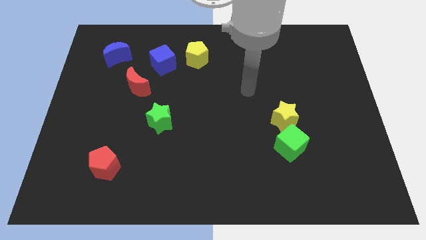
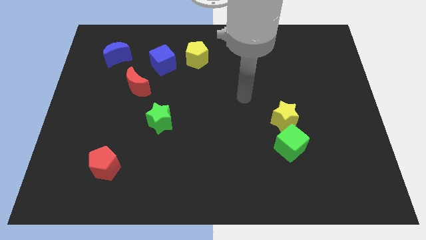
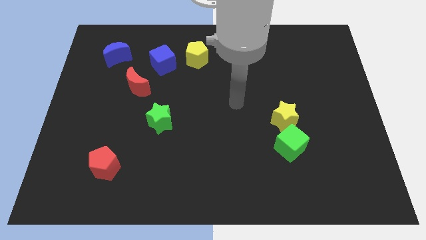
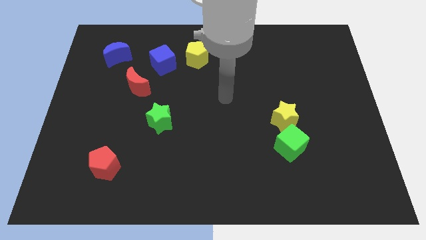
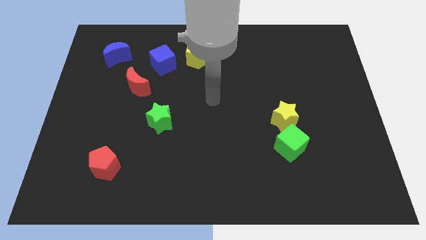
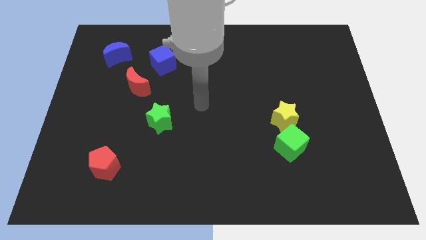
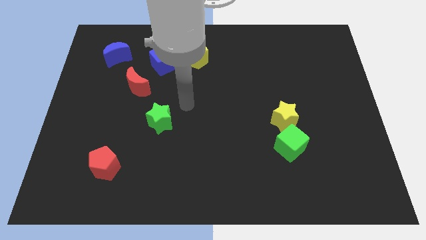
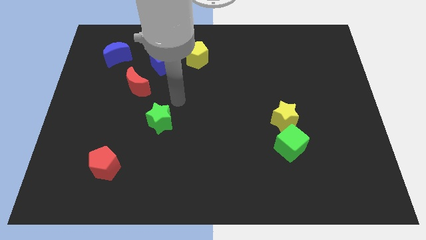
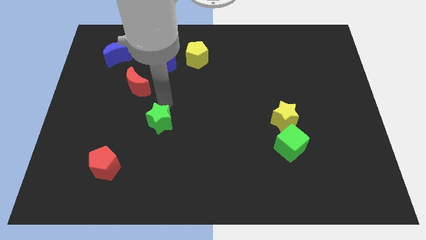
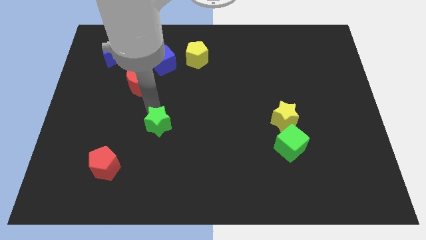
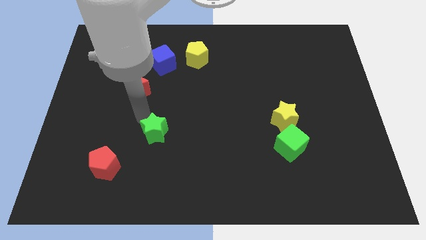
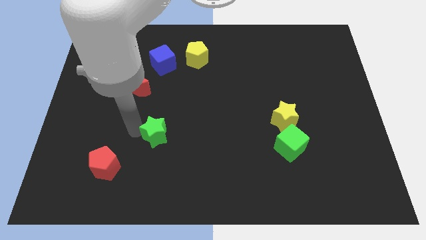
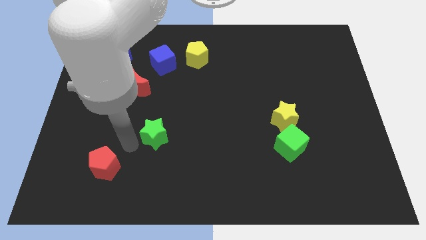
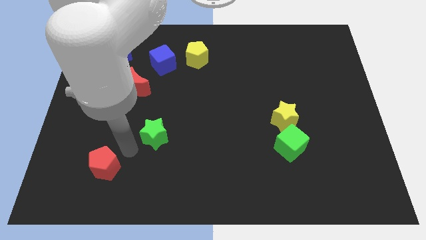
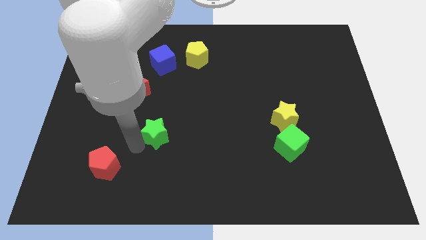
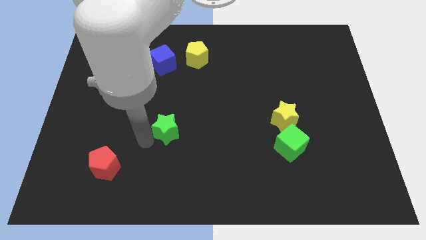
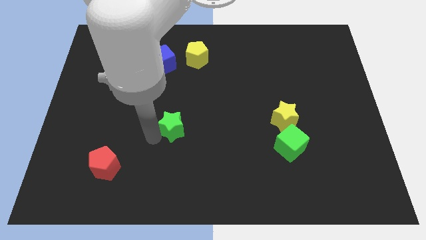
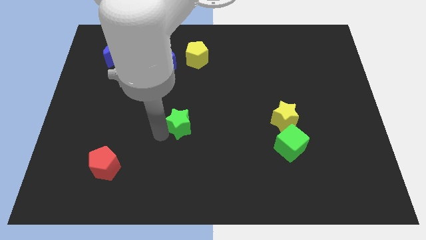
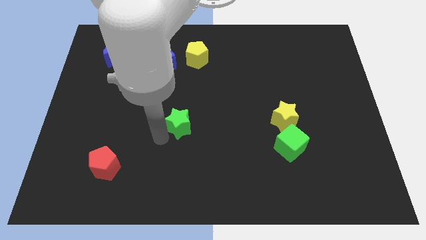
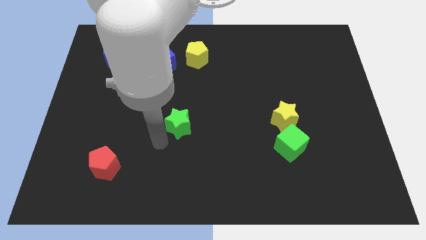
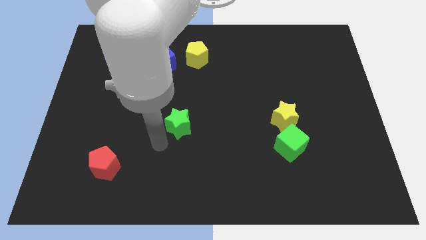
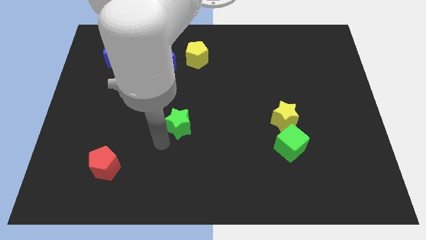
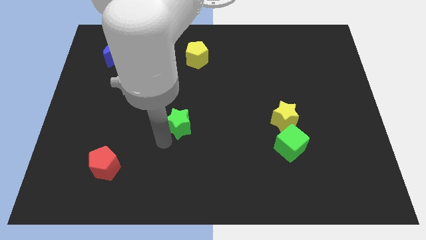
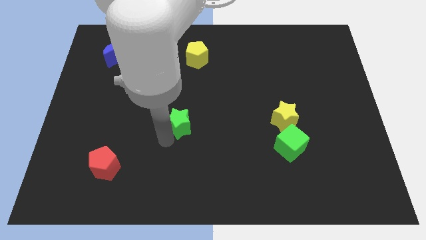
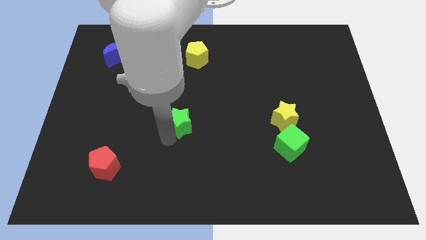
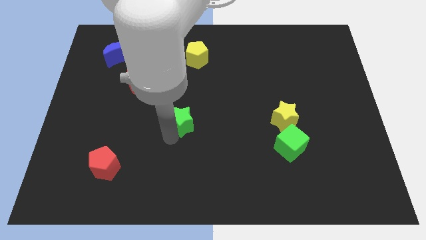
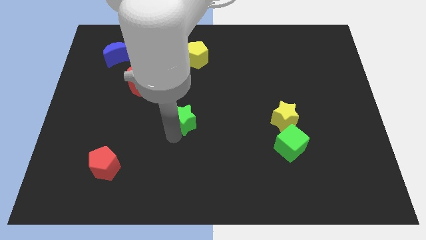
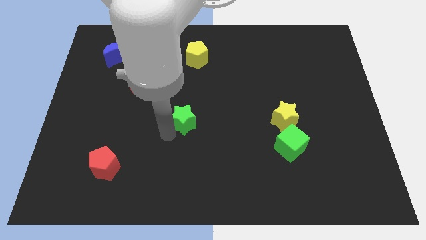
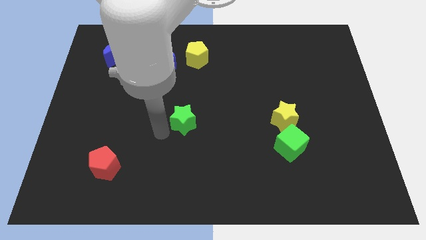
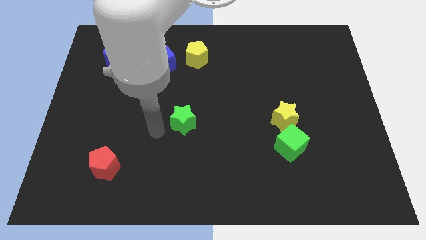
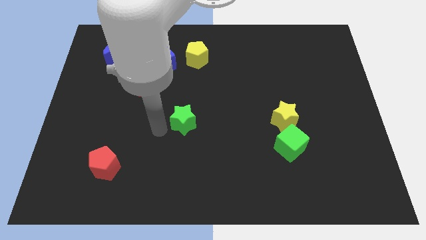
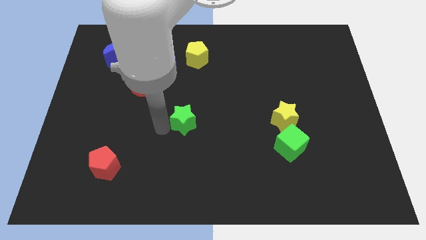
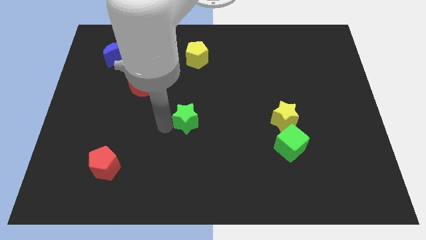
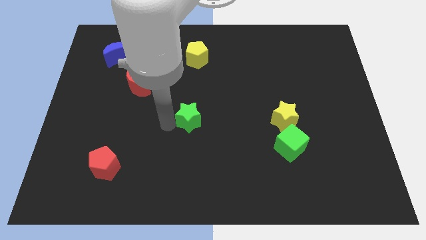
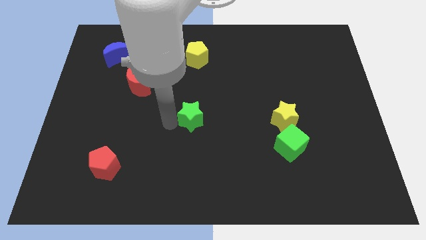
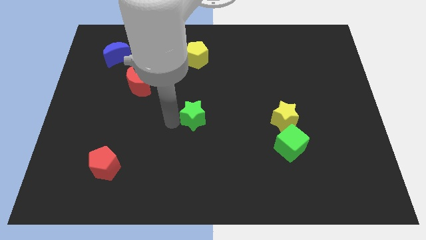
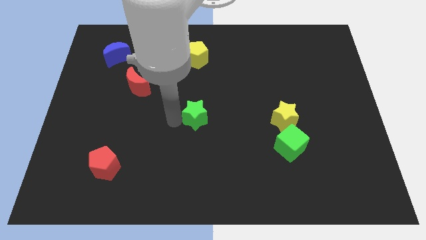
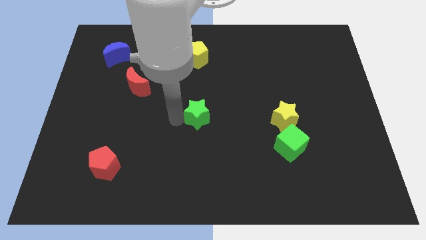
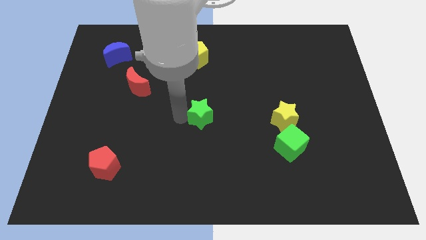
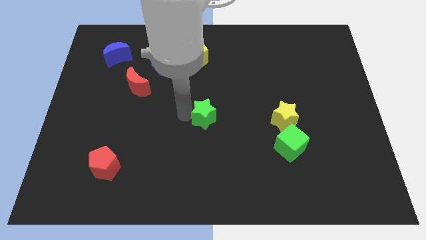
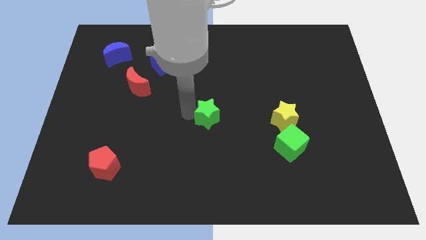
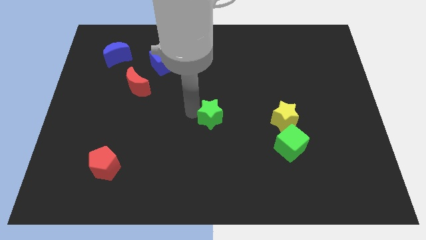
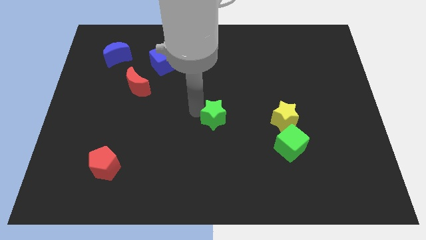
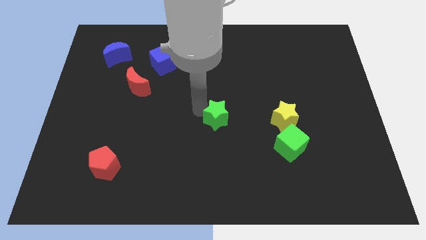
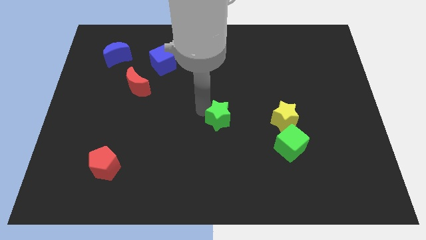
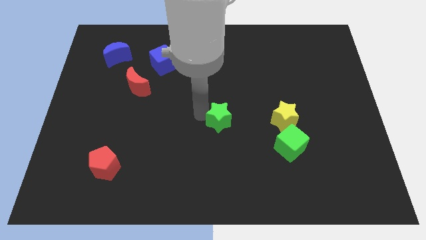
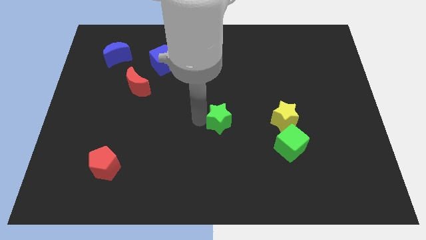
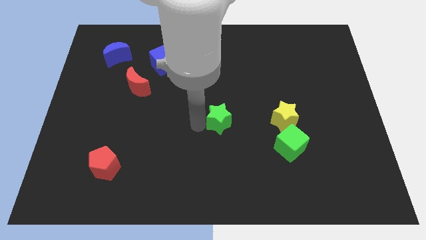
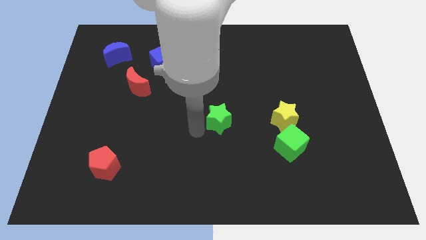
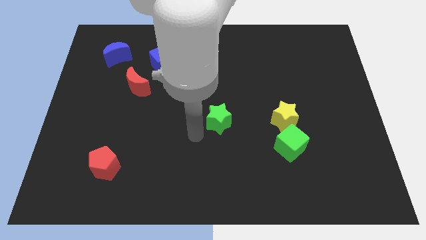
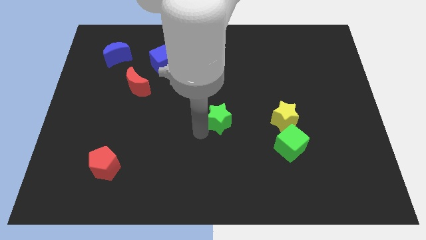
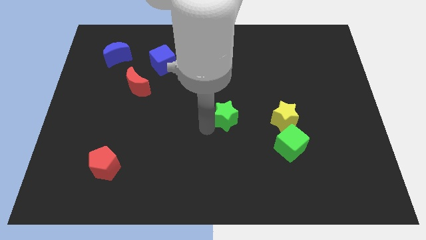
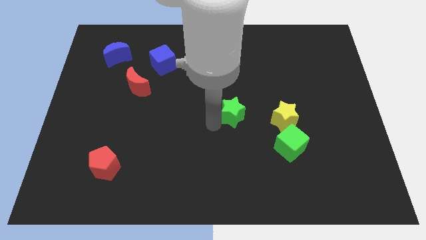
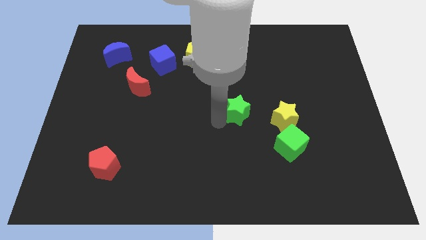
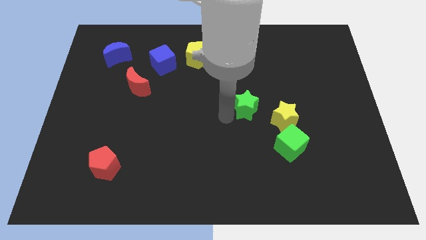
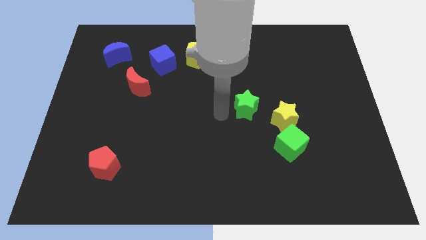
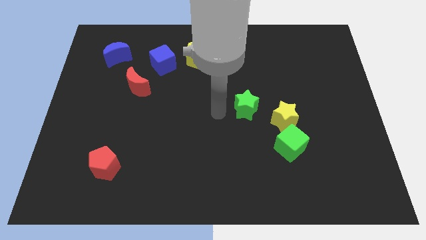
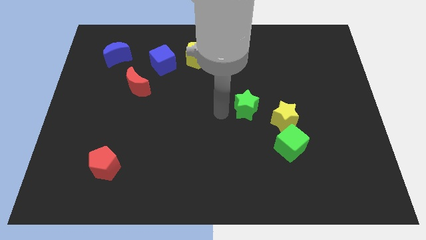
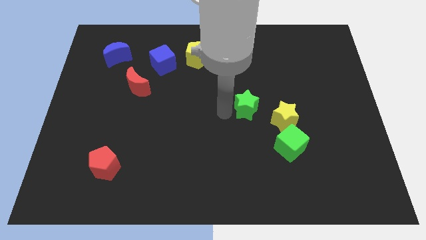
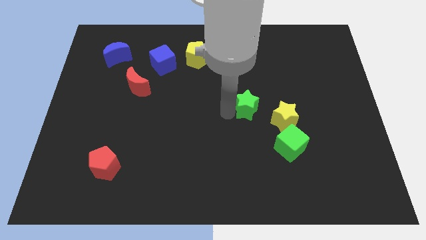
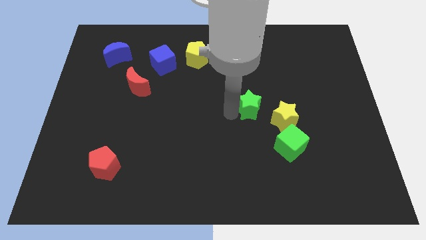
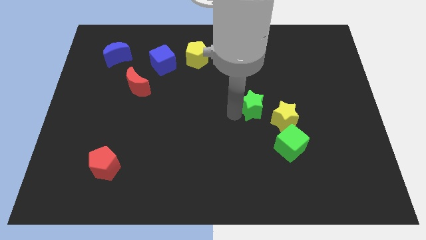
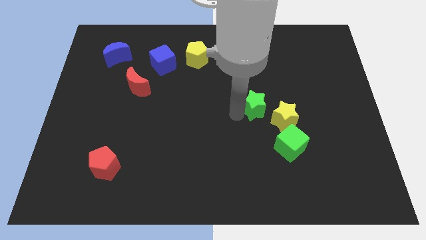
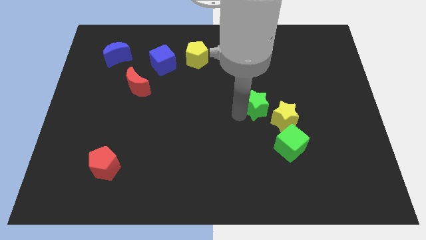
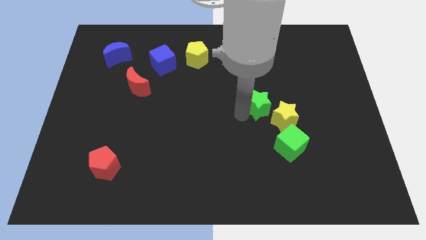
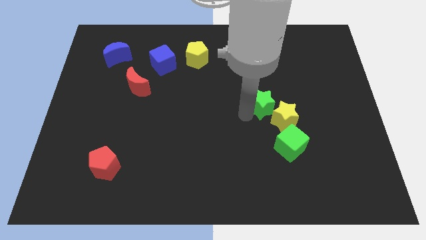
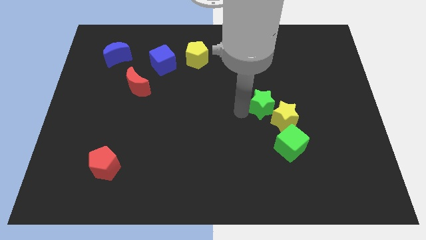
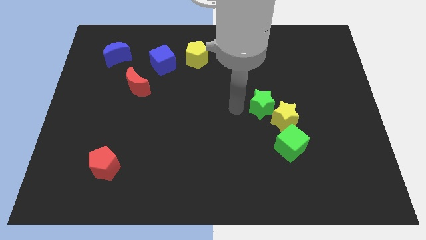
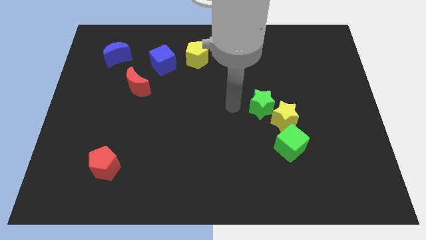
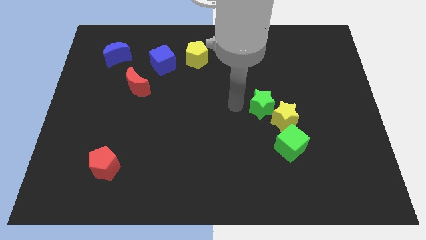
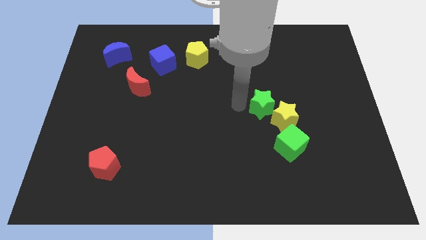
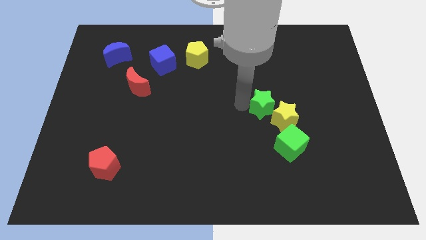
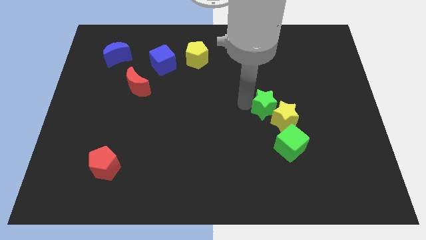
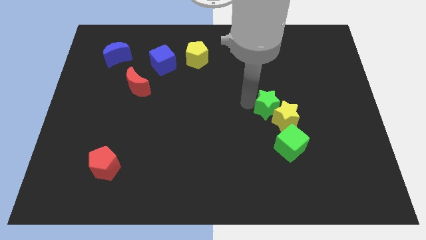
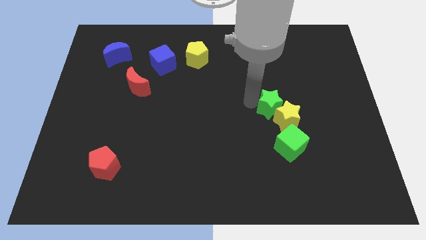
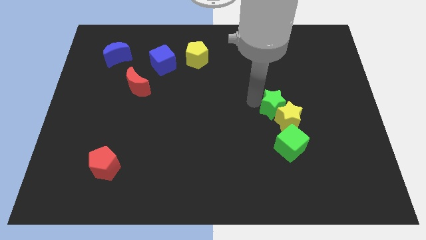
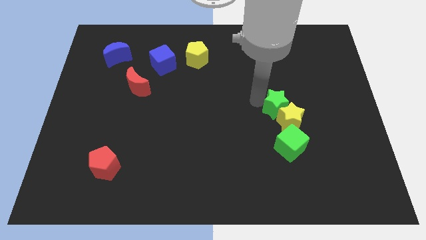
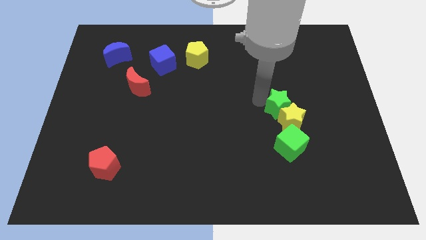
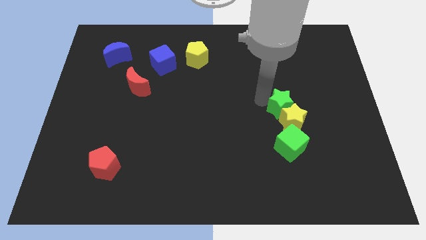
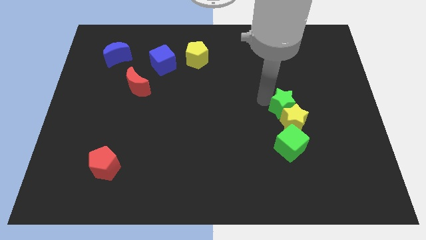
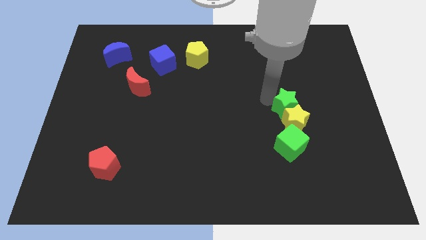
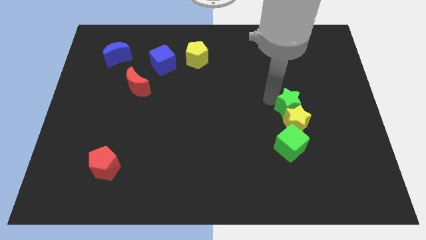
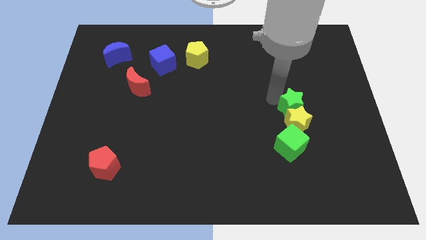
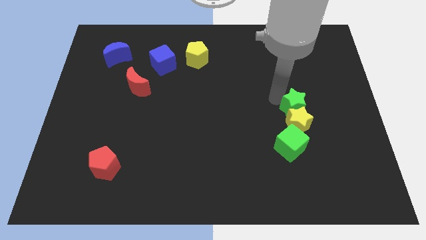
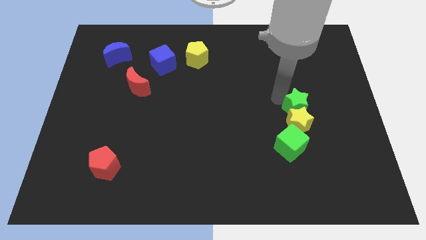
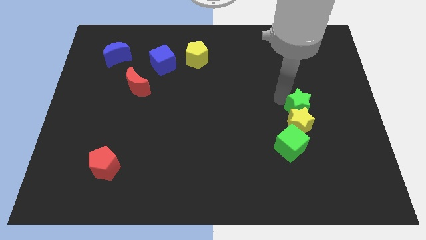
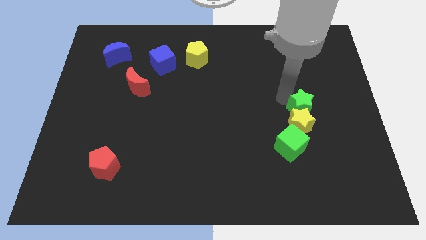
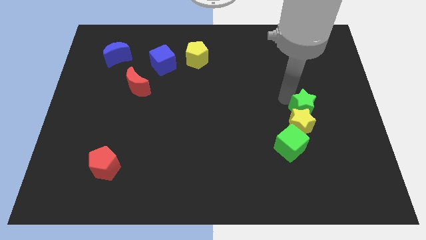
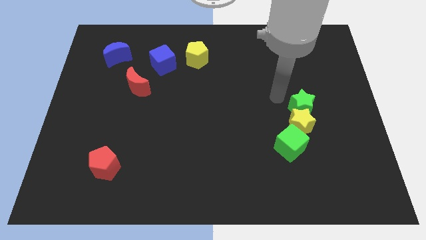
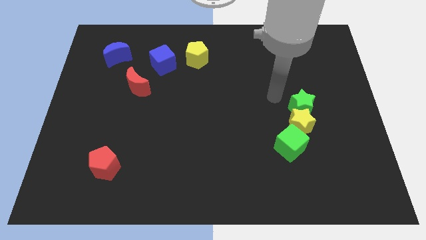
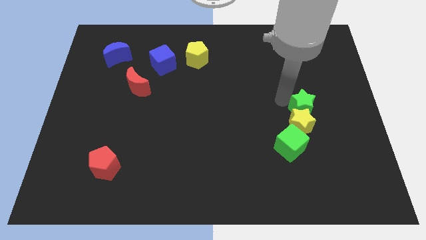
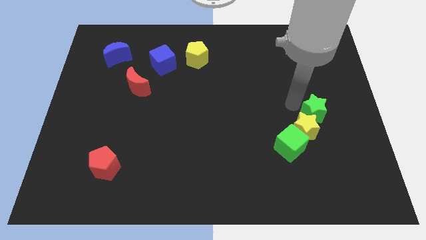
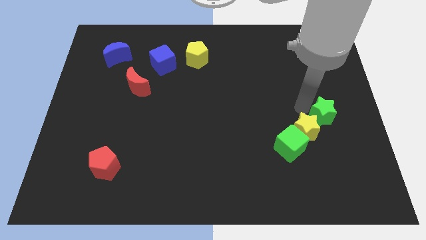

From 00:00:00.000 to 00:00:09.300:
put the green star to the right side of the yellow star
